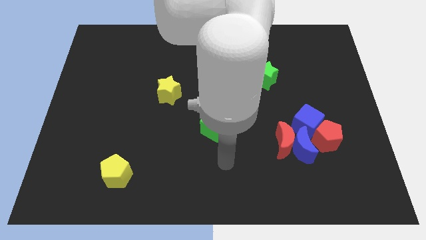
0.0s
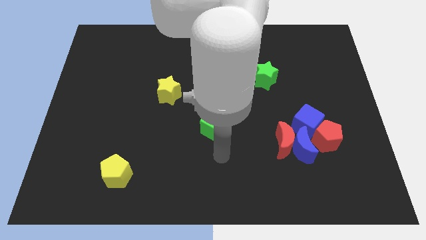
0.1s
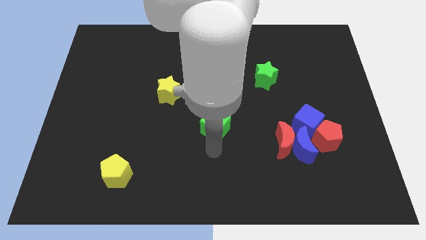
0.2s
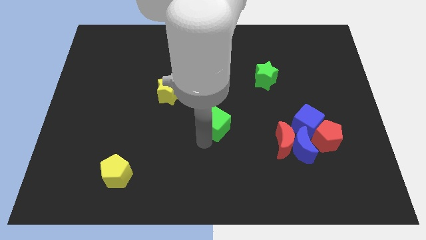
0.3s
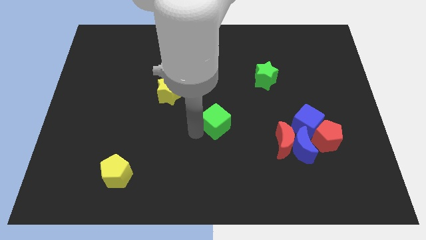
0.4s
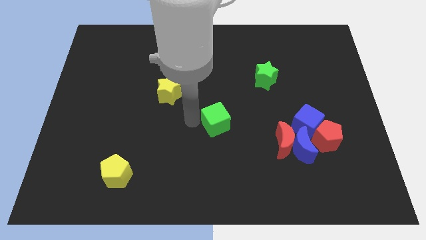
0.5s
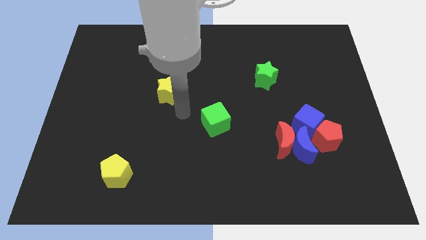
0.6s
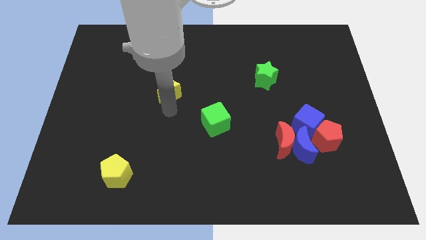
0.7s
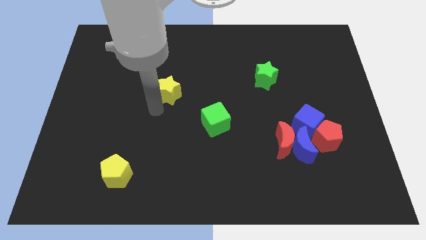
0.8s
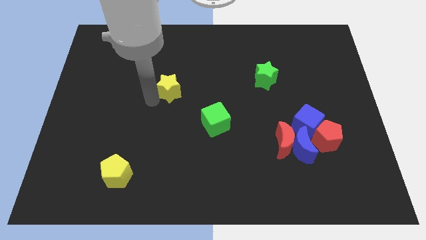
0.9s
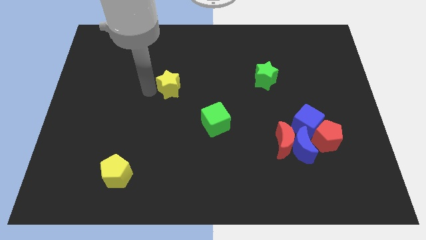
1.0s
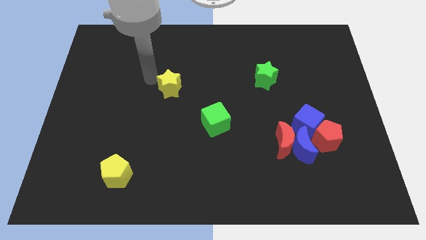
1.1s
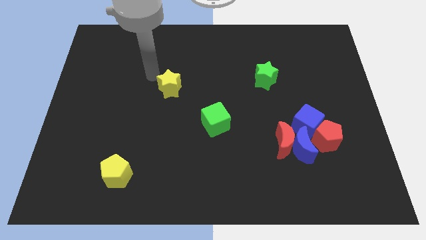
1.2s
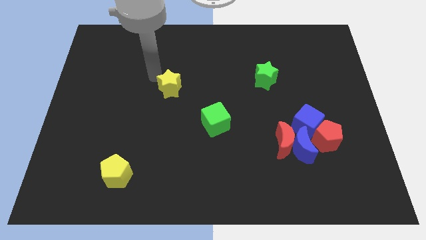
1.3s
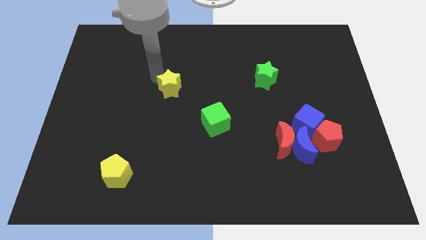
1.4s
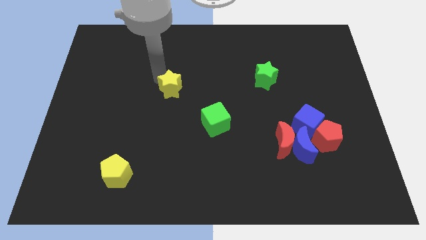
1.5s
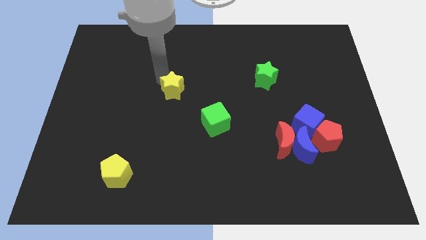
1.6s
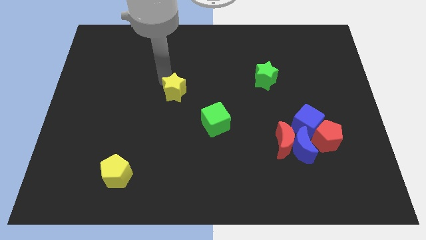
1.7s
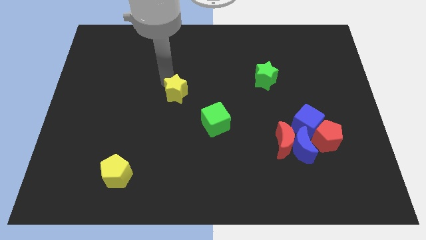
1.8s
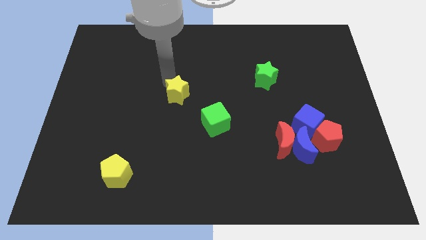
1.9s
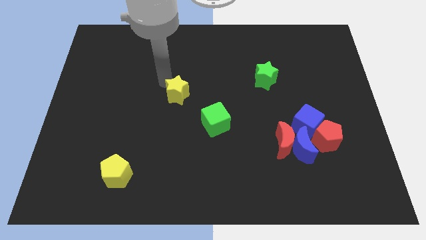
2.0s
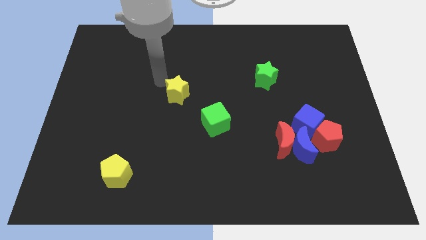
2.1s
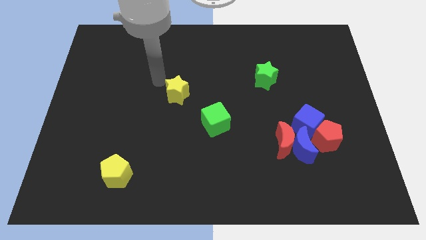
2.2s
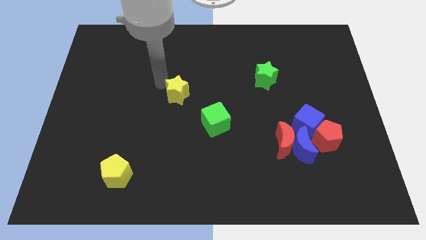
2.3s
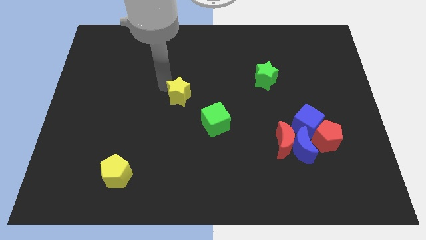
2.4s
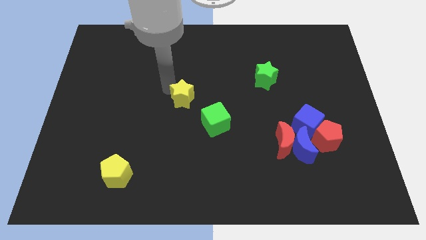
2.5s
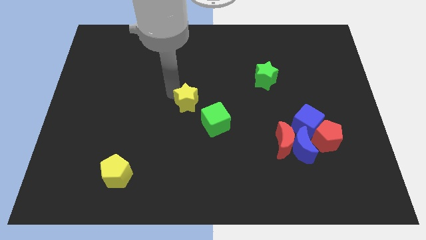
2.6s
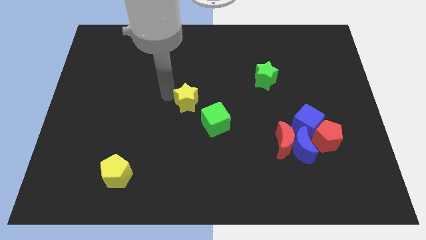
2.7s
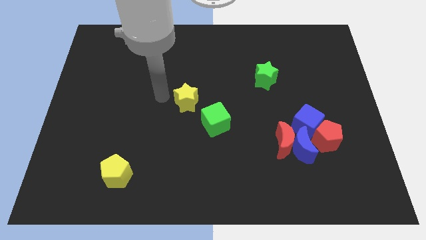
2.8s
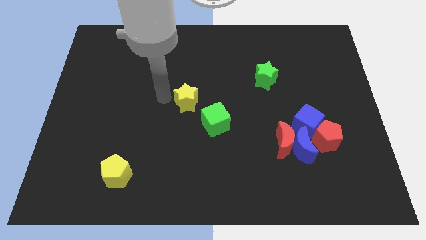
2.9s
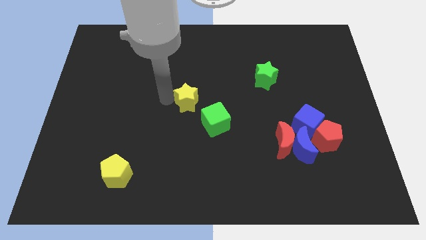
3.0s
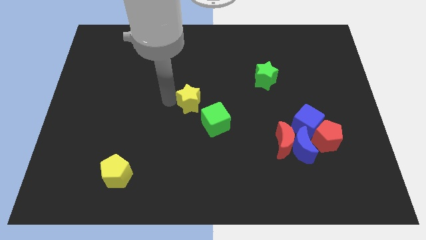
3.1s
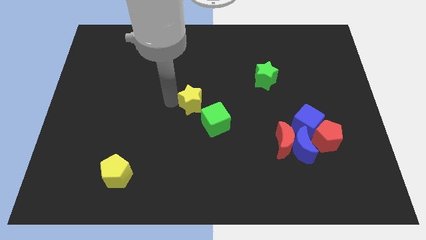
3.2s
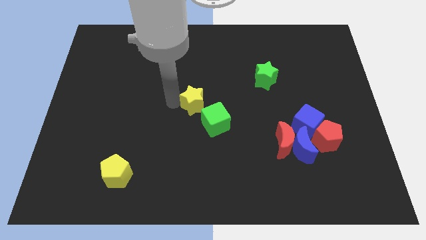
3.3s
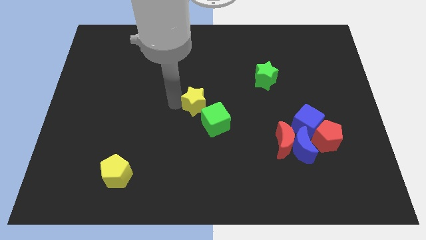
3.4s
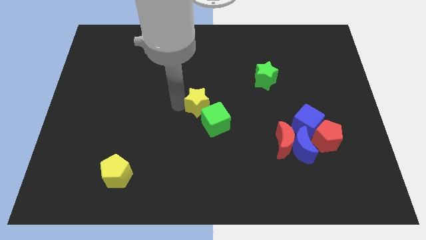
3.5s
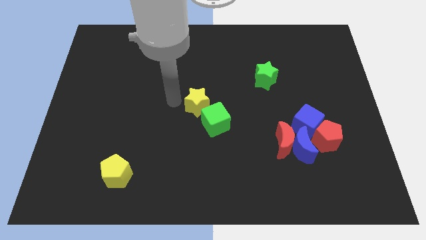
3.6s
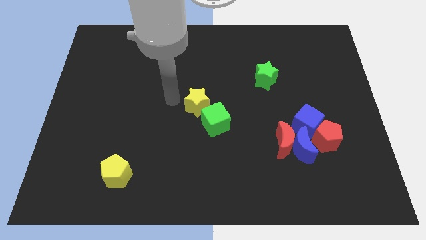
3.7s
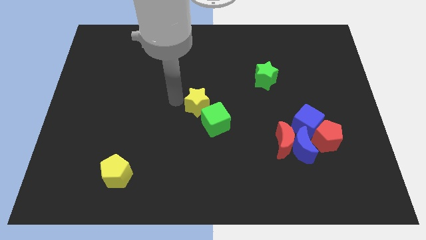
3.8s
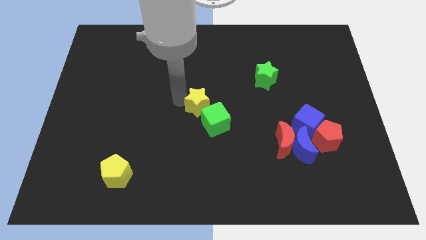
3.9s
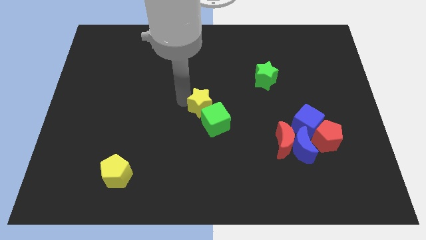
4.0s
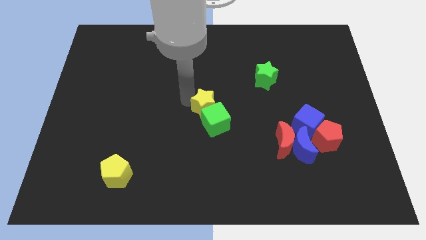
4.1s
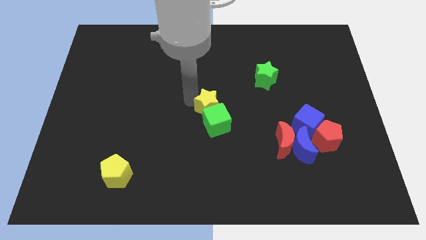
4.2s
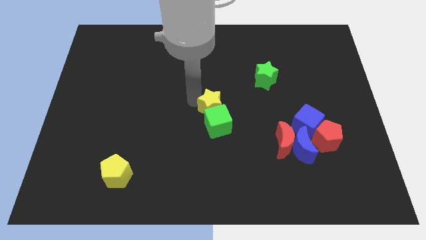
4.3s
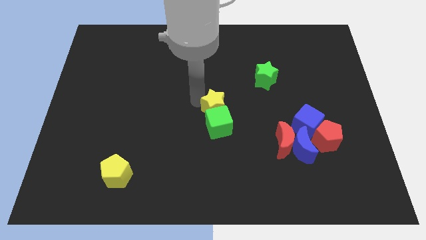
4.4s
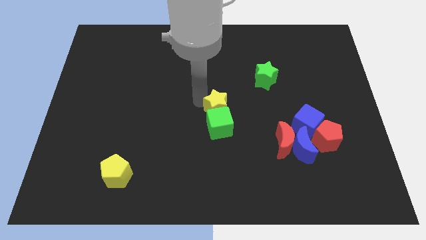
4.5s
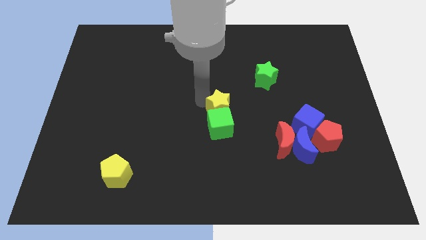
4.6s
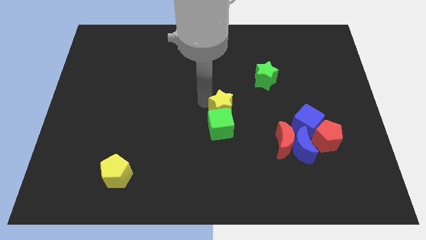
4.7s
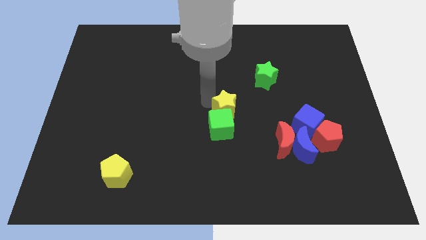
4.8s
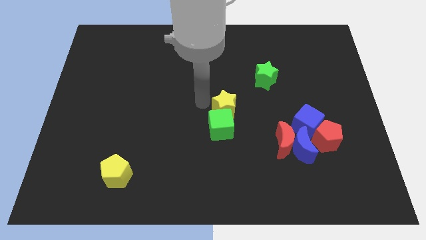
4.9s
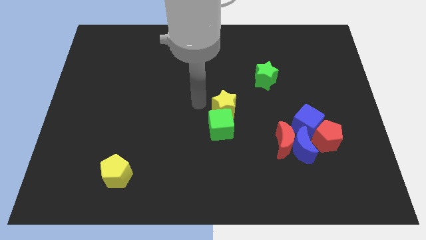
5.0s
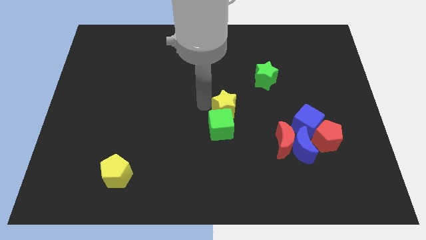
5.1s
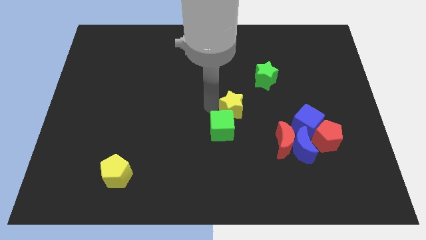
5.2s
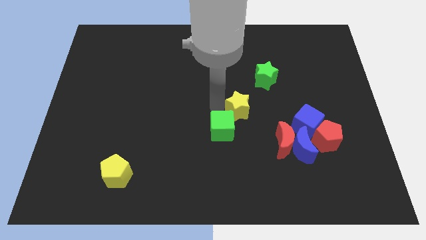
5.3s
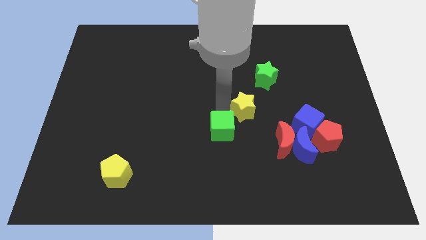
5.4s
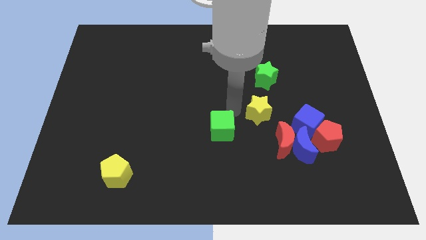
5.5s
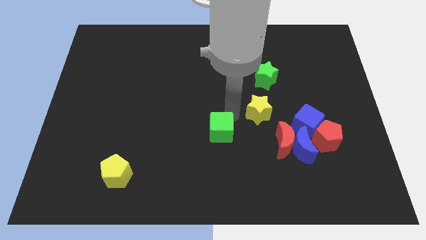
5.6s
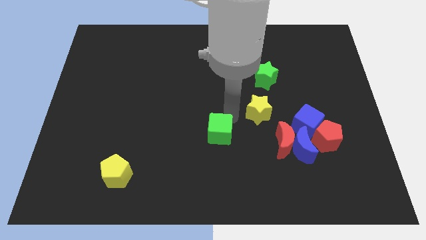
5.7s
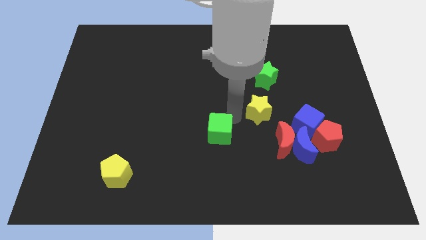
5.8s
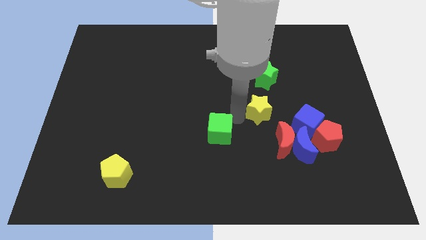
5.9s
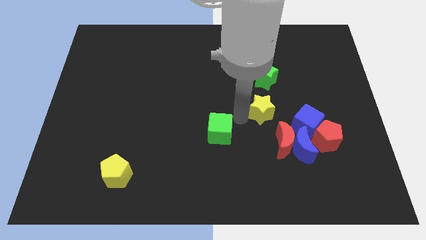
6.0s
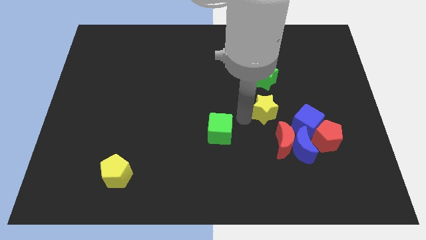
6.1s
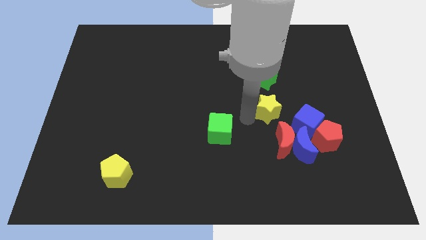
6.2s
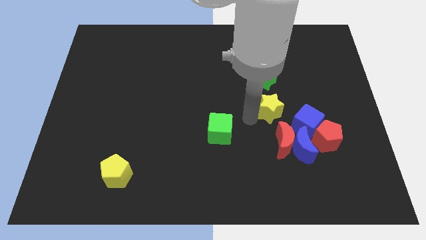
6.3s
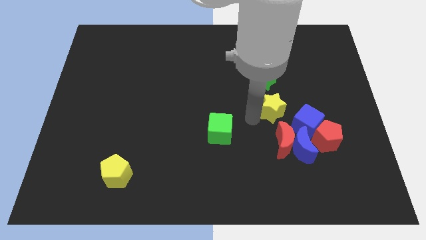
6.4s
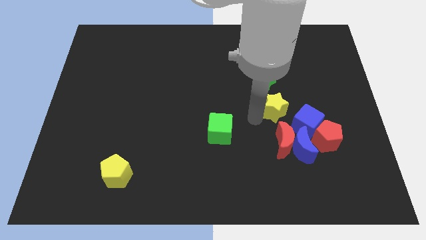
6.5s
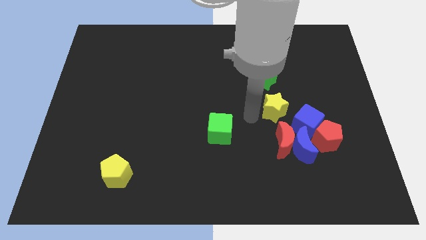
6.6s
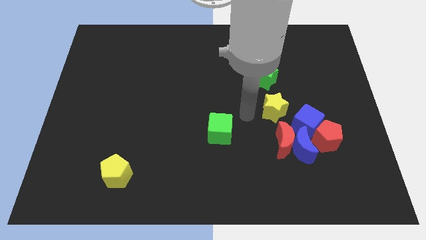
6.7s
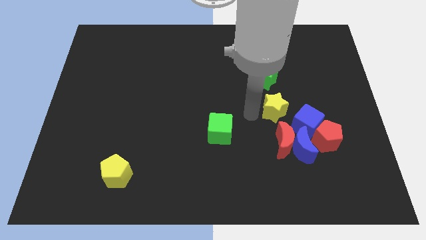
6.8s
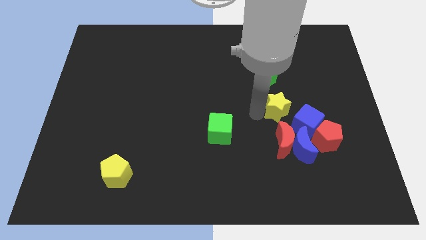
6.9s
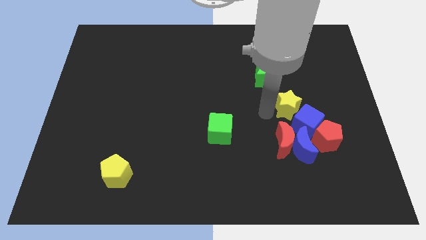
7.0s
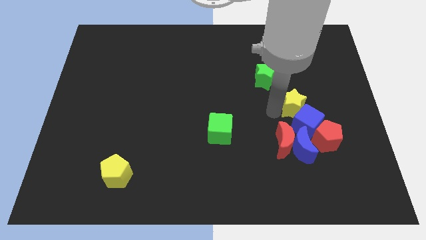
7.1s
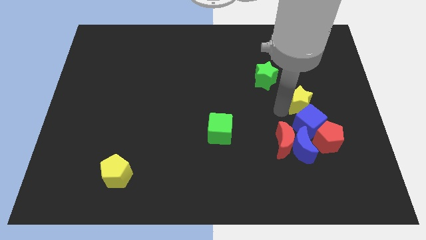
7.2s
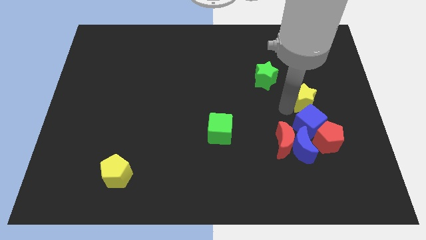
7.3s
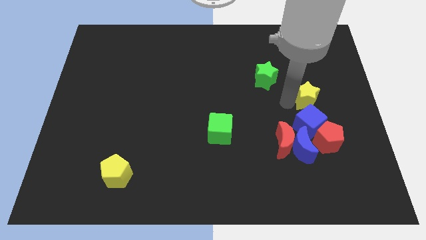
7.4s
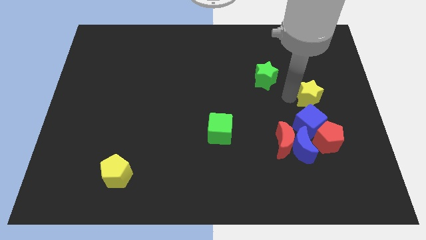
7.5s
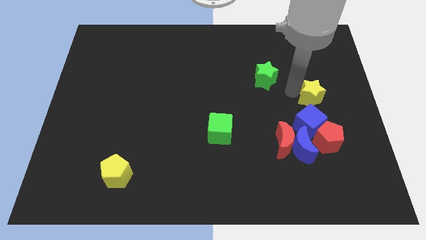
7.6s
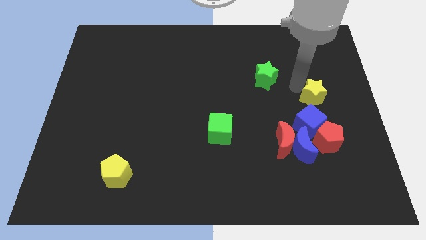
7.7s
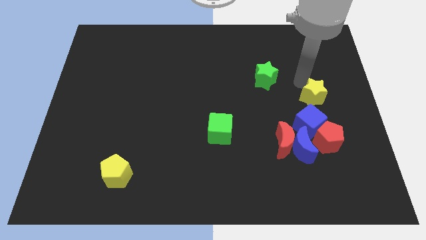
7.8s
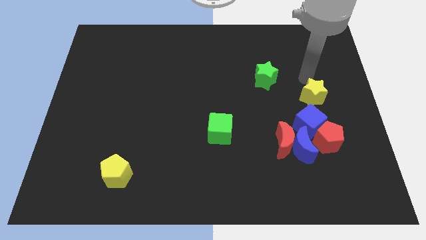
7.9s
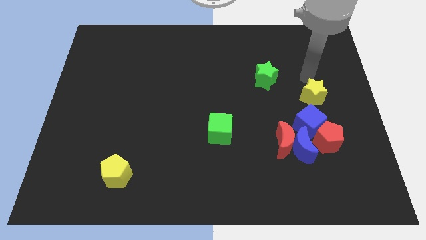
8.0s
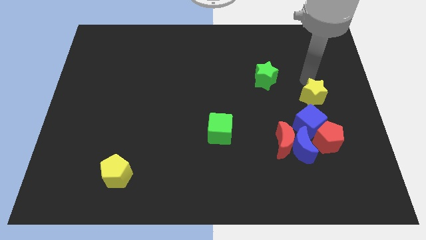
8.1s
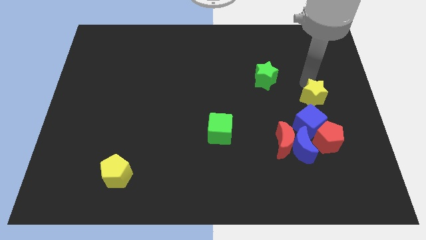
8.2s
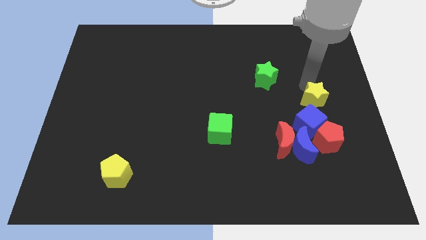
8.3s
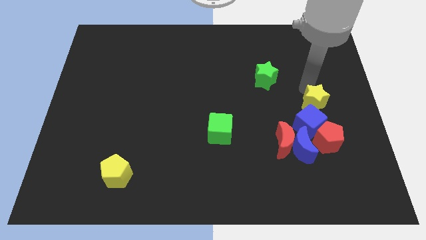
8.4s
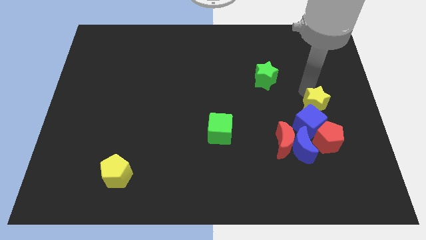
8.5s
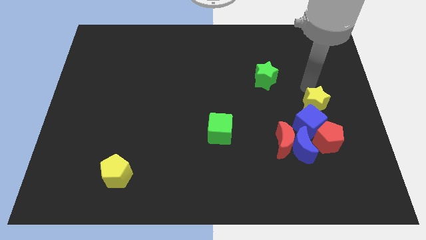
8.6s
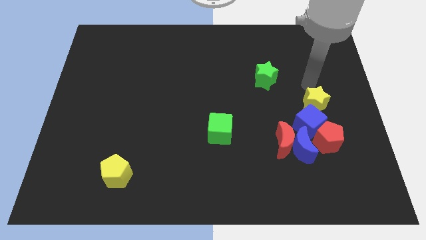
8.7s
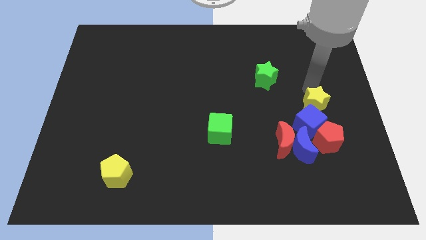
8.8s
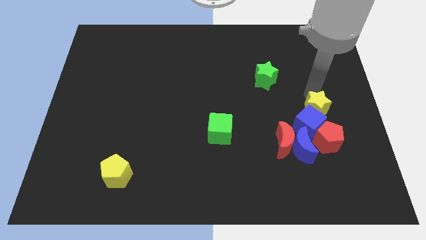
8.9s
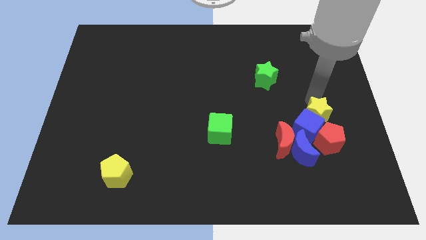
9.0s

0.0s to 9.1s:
slide the yellow star to the top right of the blue moon
